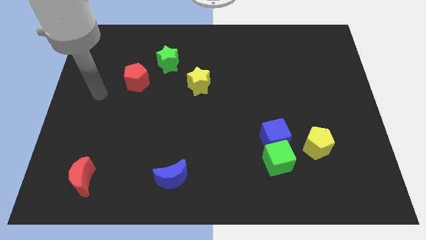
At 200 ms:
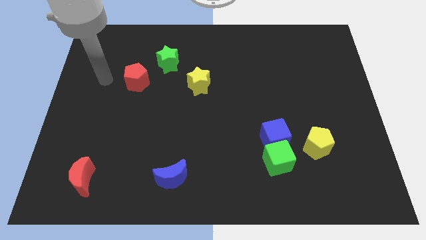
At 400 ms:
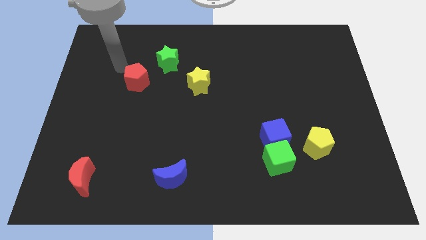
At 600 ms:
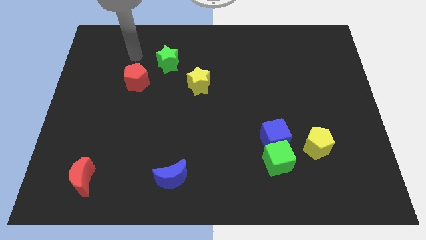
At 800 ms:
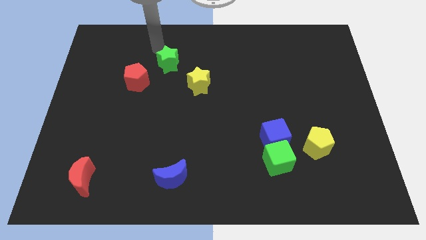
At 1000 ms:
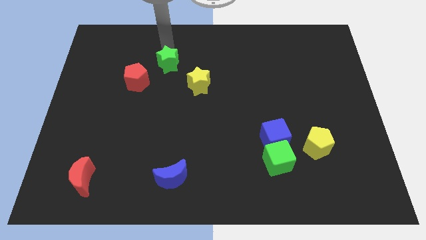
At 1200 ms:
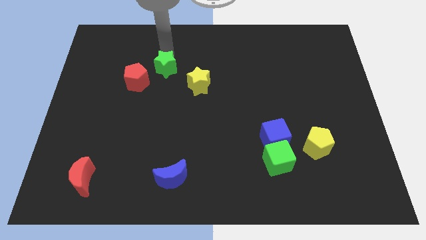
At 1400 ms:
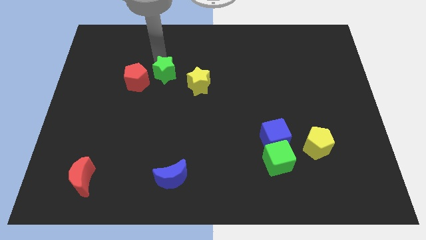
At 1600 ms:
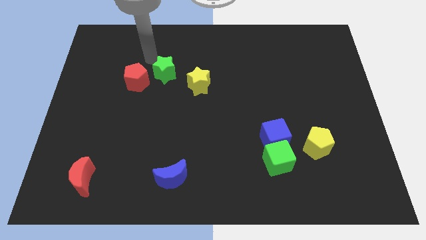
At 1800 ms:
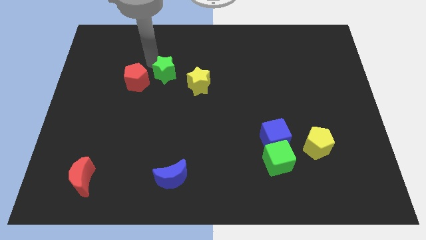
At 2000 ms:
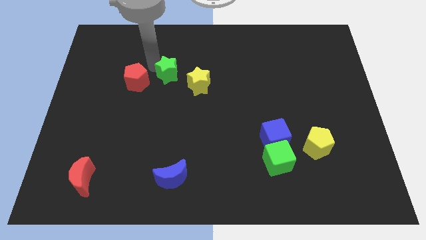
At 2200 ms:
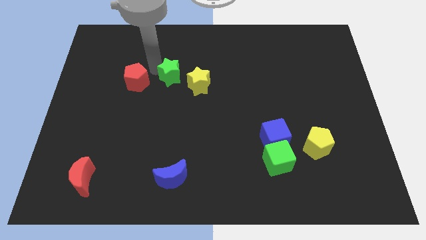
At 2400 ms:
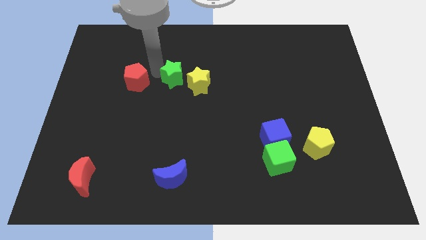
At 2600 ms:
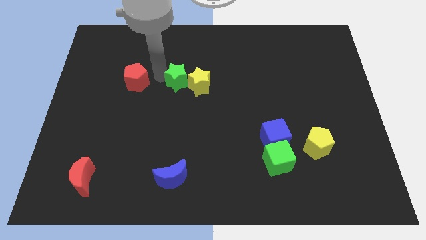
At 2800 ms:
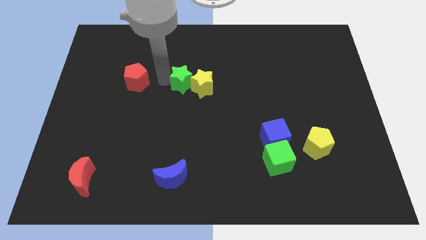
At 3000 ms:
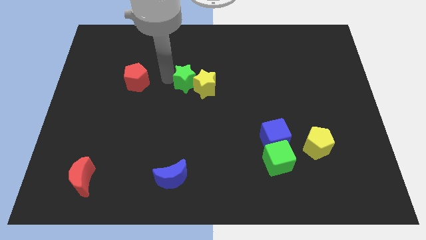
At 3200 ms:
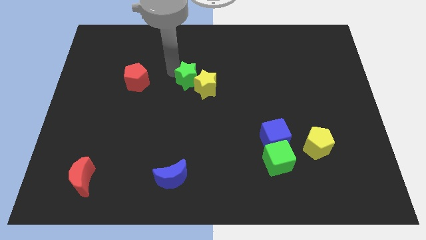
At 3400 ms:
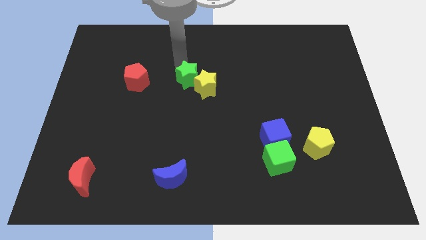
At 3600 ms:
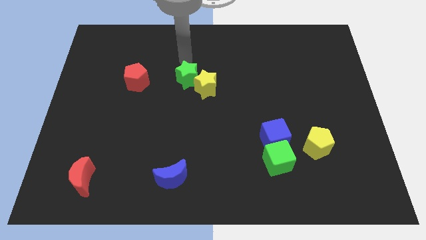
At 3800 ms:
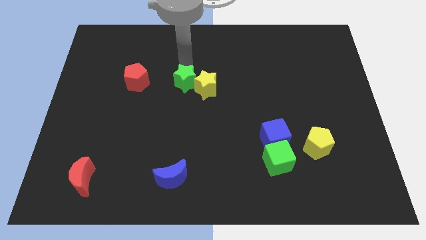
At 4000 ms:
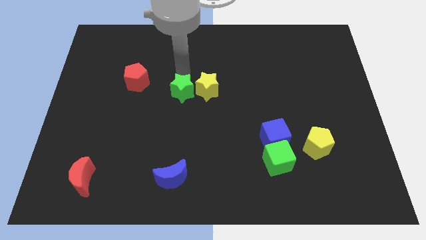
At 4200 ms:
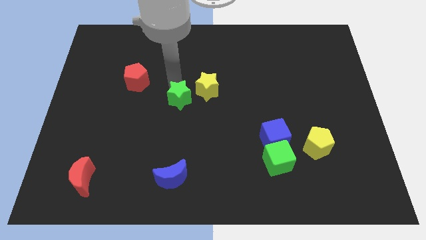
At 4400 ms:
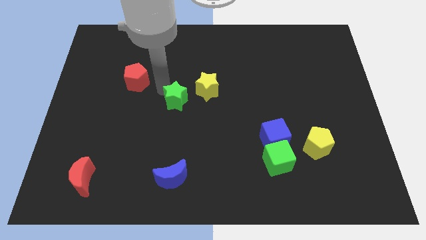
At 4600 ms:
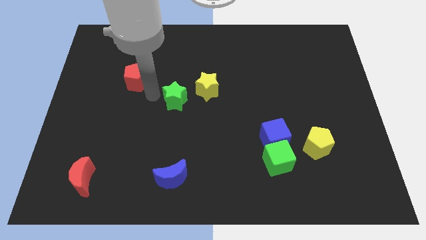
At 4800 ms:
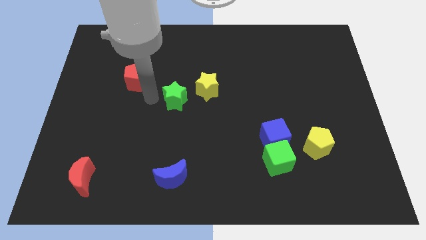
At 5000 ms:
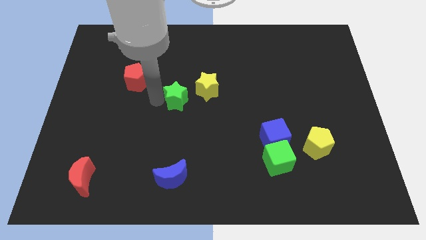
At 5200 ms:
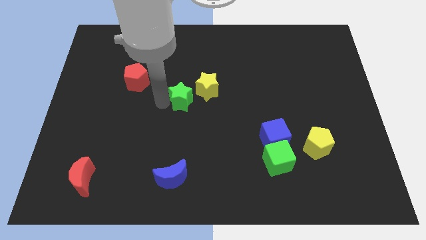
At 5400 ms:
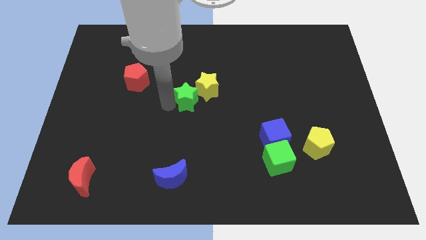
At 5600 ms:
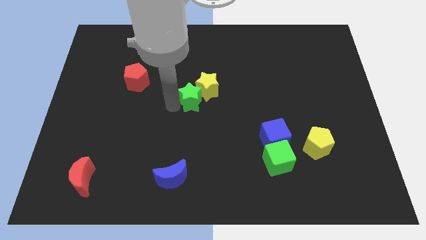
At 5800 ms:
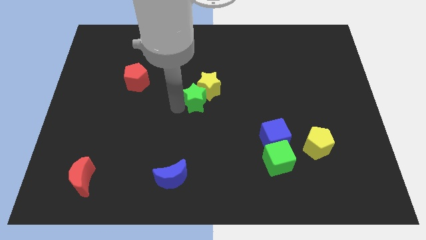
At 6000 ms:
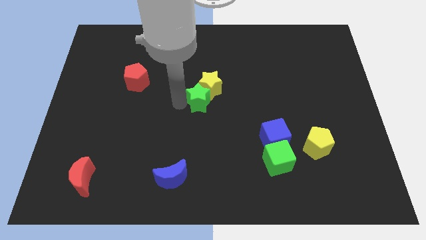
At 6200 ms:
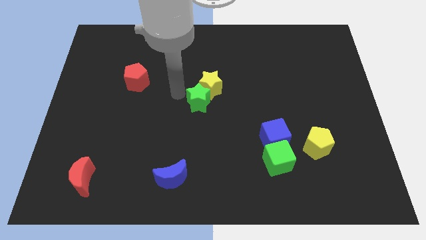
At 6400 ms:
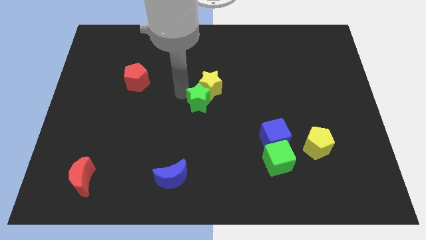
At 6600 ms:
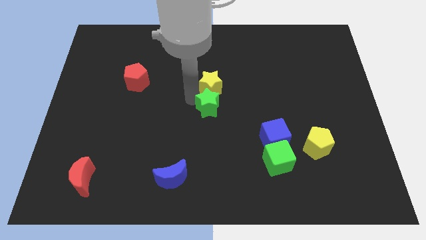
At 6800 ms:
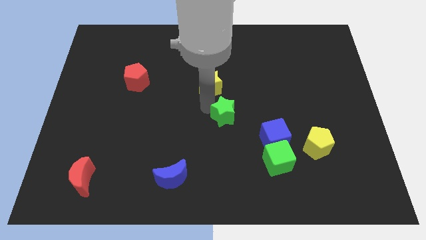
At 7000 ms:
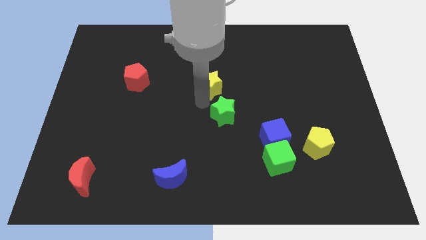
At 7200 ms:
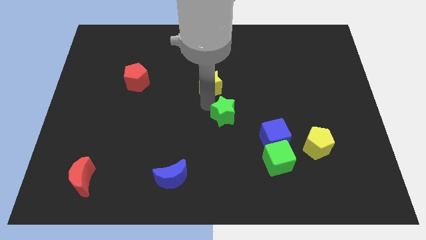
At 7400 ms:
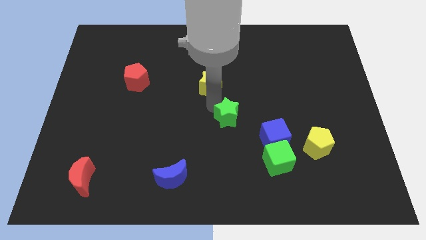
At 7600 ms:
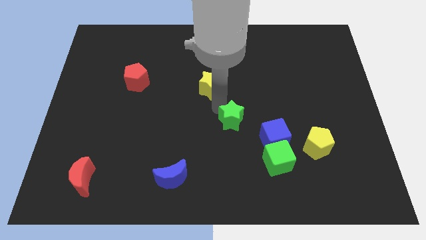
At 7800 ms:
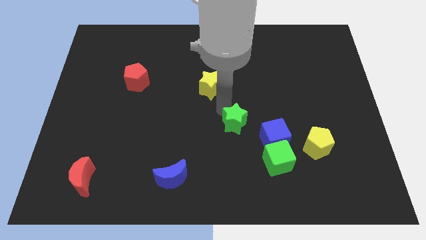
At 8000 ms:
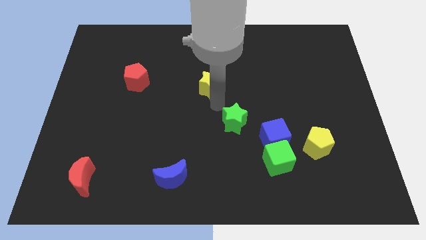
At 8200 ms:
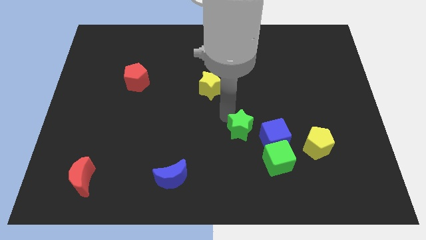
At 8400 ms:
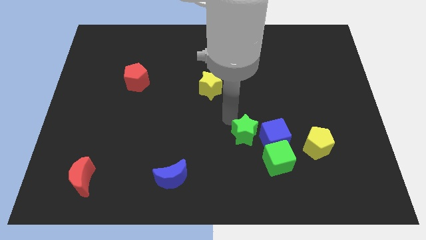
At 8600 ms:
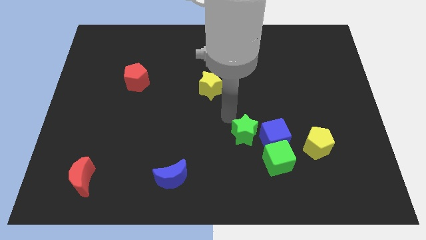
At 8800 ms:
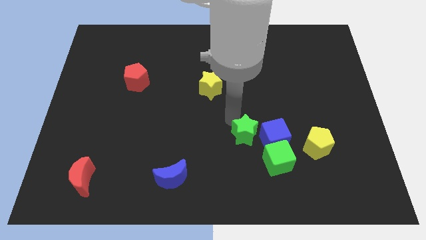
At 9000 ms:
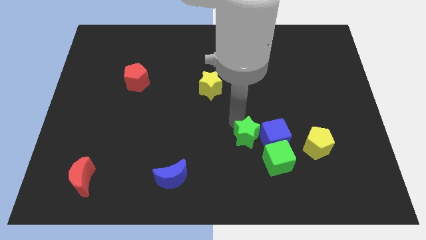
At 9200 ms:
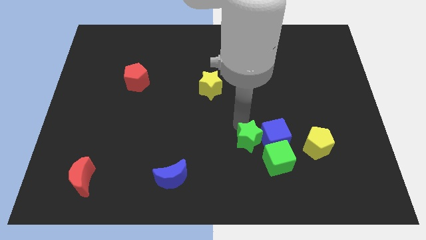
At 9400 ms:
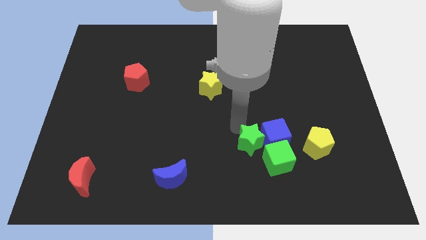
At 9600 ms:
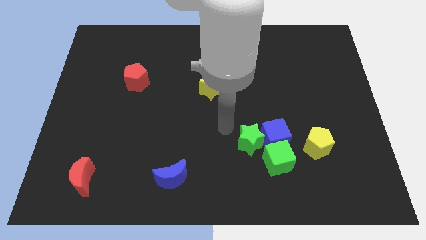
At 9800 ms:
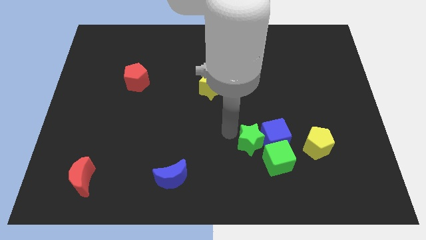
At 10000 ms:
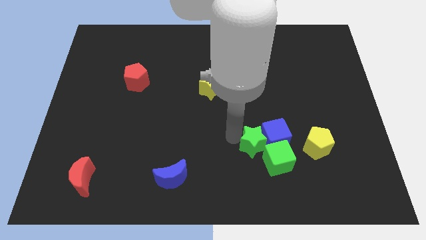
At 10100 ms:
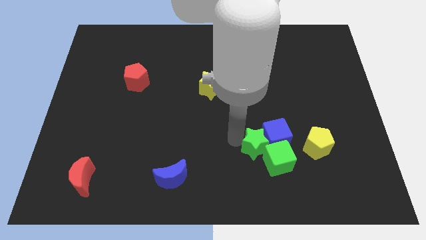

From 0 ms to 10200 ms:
move the green star next to the green cube

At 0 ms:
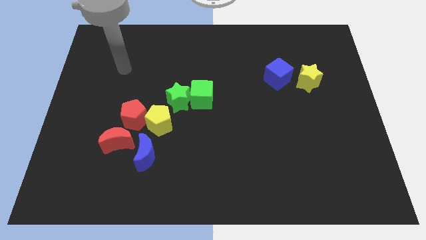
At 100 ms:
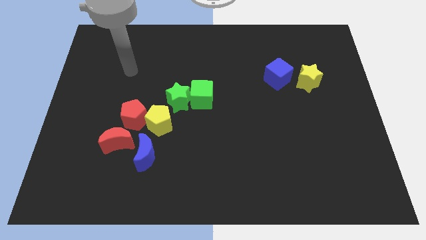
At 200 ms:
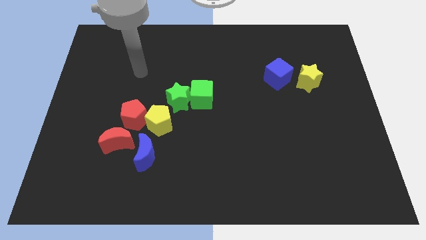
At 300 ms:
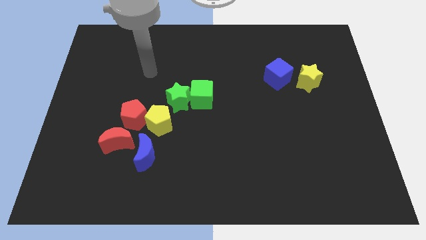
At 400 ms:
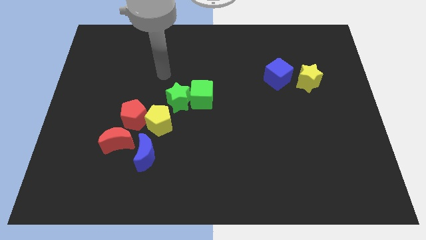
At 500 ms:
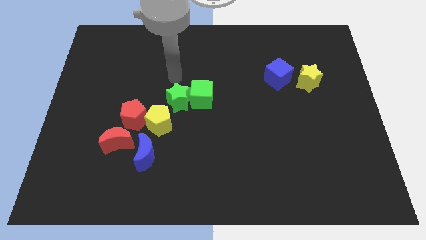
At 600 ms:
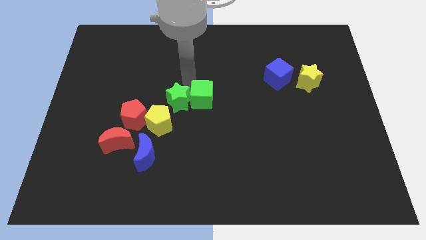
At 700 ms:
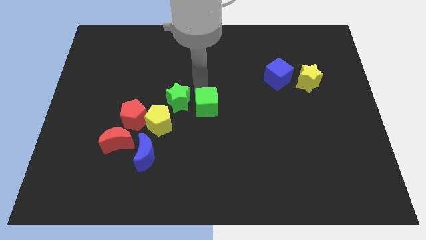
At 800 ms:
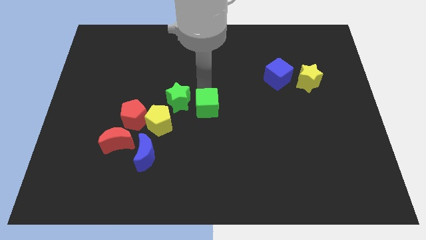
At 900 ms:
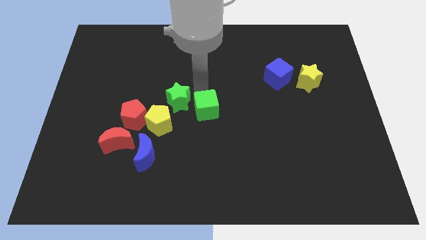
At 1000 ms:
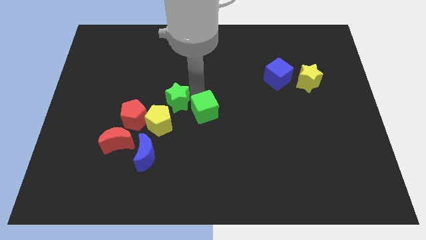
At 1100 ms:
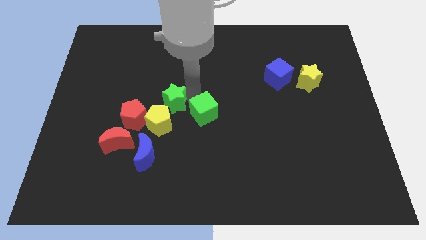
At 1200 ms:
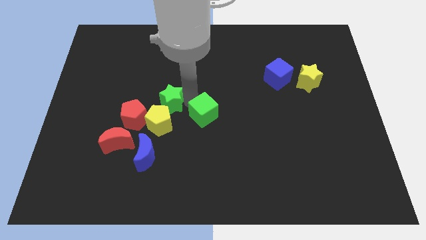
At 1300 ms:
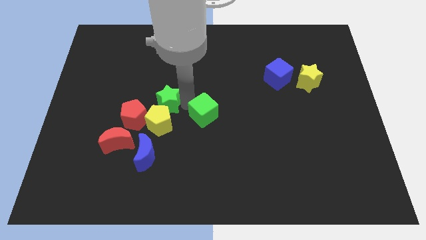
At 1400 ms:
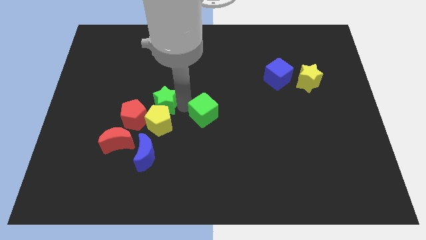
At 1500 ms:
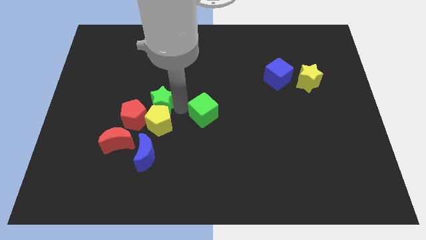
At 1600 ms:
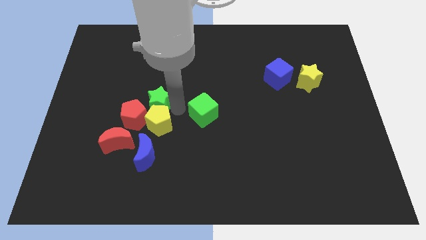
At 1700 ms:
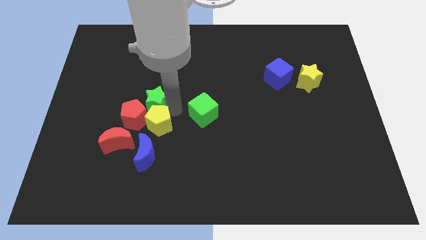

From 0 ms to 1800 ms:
put the green star close to the red pentagon

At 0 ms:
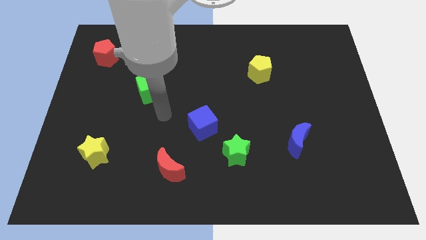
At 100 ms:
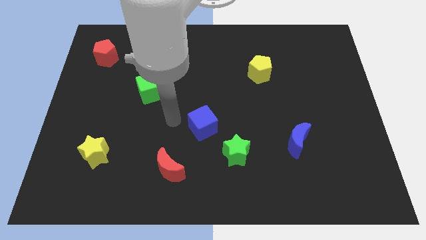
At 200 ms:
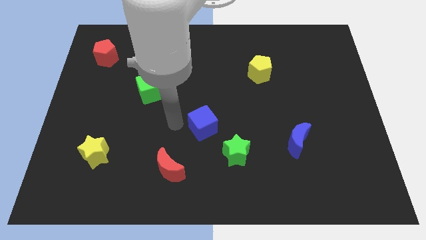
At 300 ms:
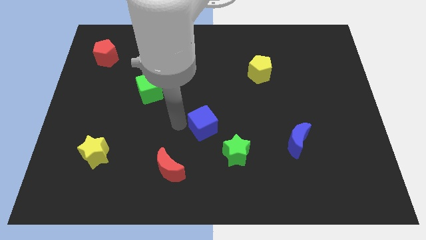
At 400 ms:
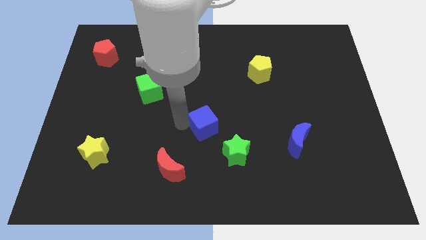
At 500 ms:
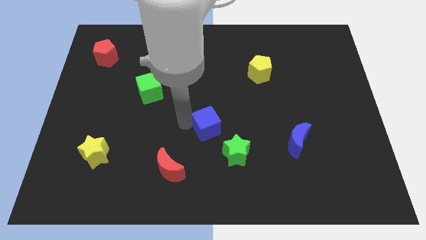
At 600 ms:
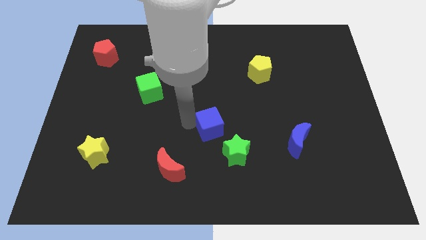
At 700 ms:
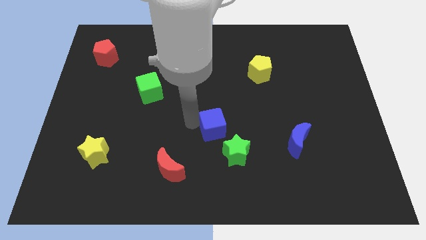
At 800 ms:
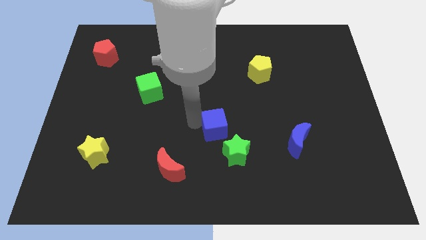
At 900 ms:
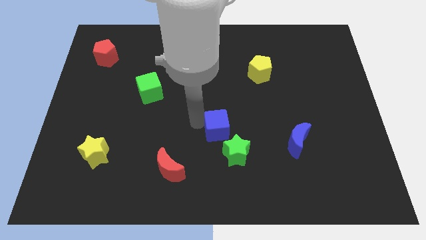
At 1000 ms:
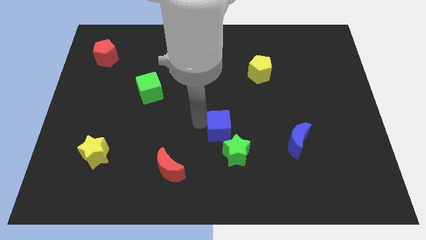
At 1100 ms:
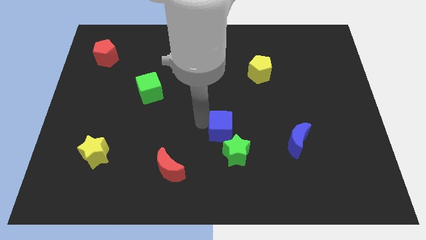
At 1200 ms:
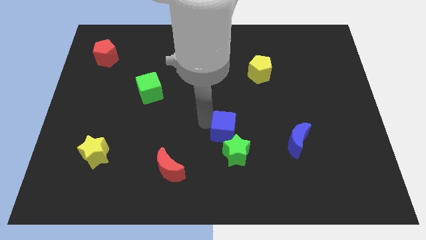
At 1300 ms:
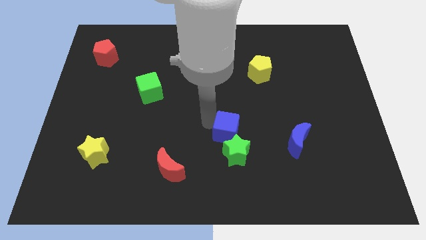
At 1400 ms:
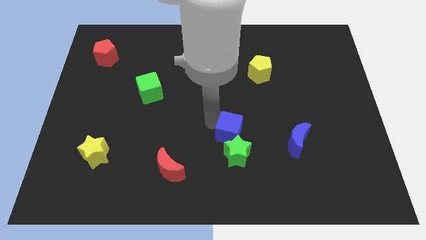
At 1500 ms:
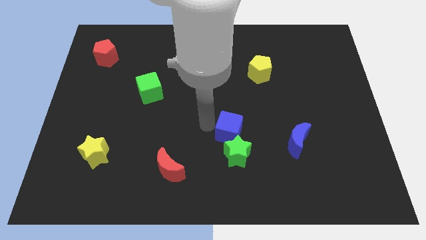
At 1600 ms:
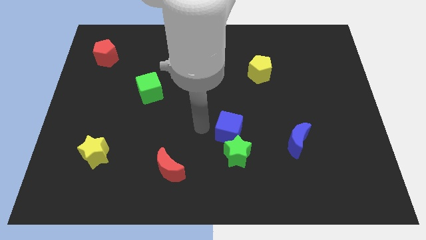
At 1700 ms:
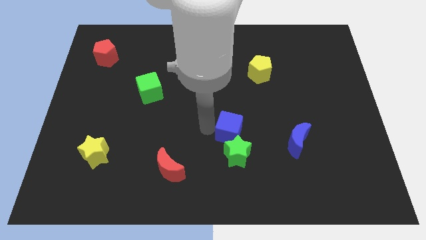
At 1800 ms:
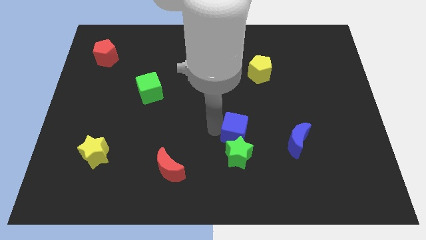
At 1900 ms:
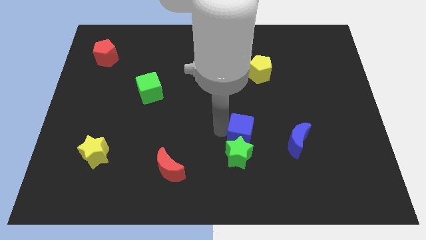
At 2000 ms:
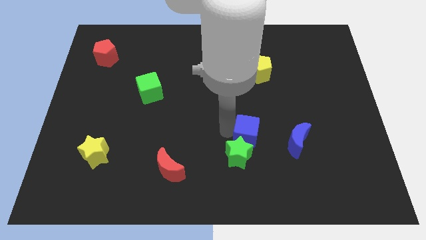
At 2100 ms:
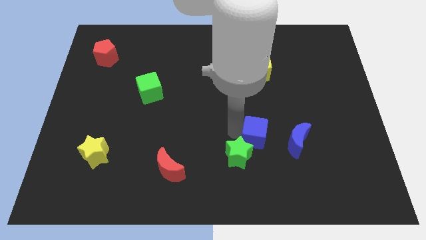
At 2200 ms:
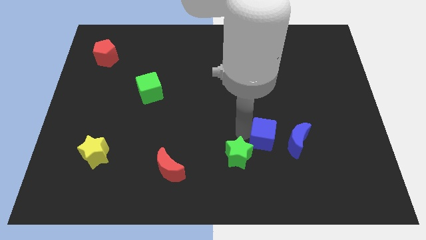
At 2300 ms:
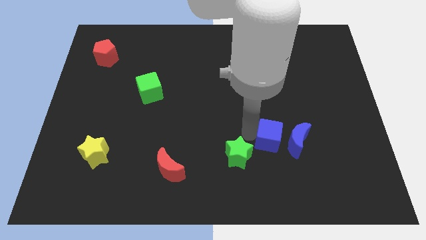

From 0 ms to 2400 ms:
push the blue cube to the blue moon
